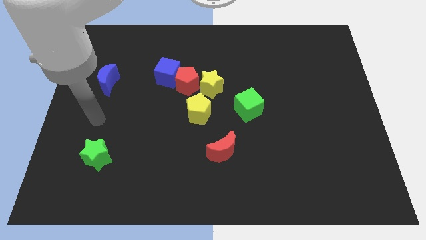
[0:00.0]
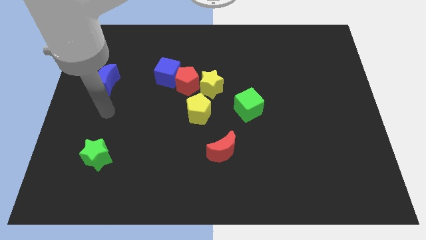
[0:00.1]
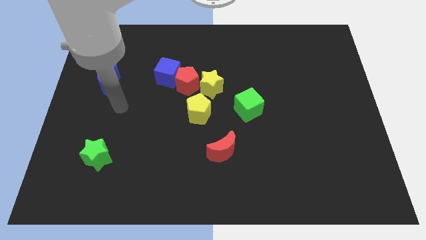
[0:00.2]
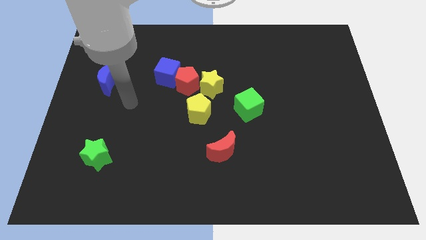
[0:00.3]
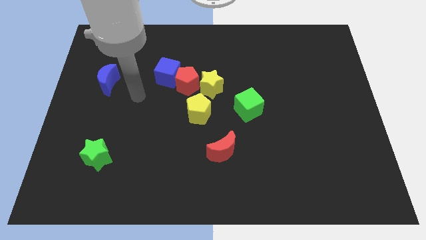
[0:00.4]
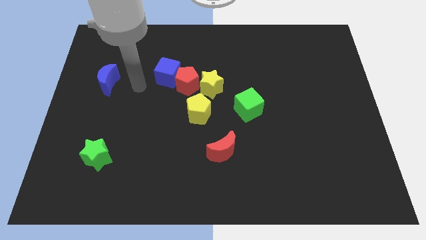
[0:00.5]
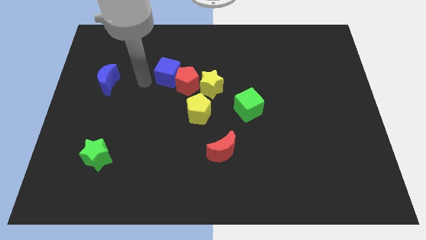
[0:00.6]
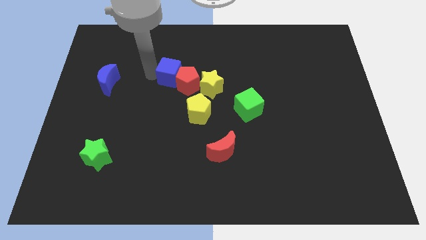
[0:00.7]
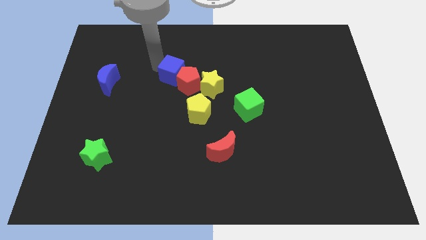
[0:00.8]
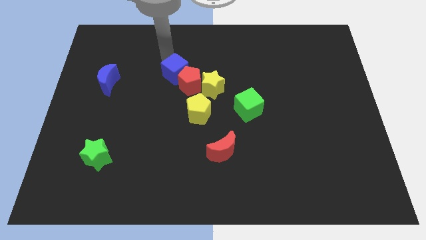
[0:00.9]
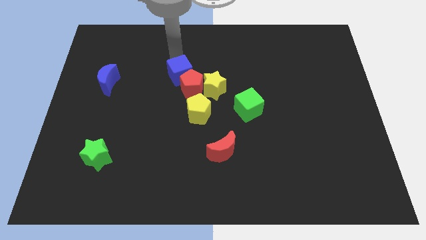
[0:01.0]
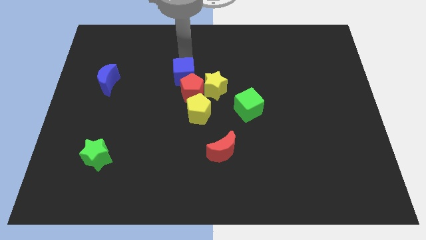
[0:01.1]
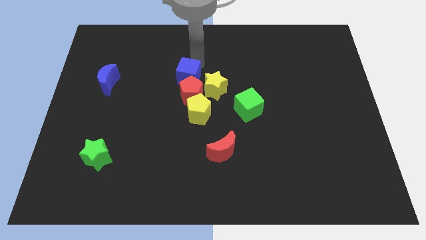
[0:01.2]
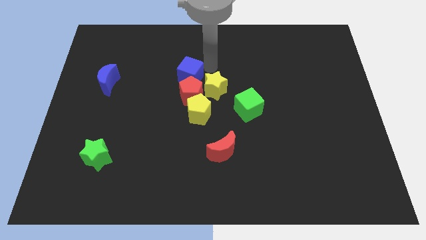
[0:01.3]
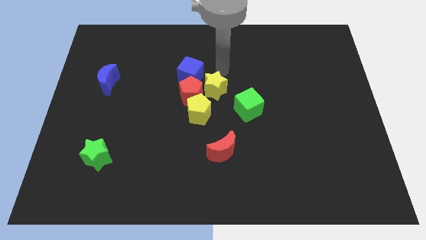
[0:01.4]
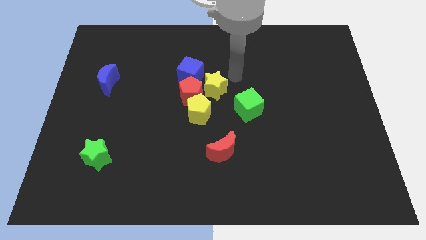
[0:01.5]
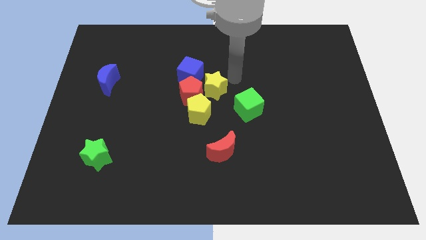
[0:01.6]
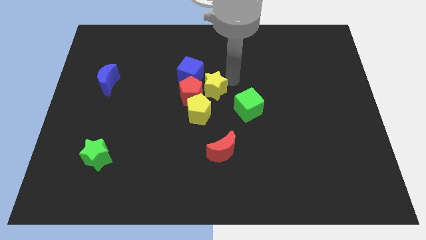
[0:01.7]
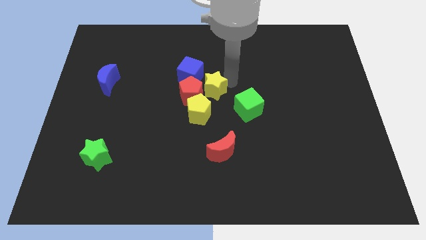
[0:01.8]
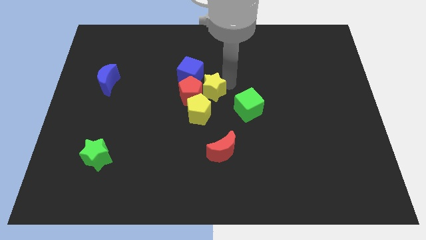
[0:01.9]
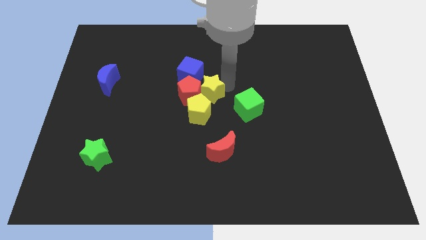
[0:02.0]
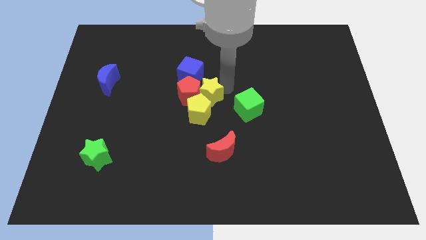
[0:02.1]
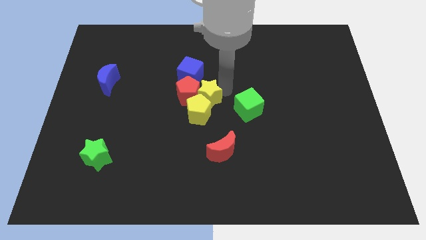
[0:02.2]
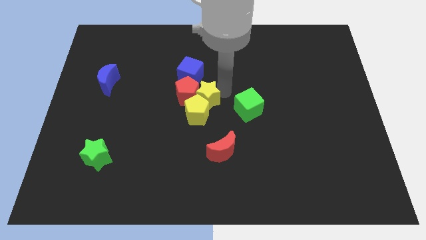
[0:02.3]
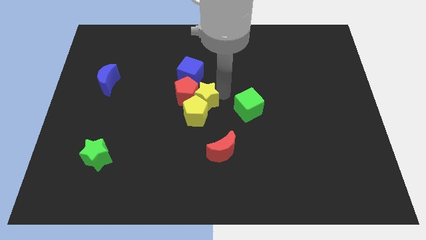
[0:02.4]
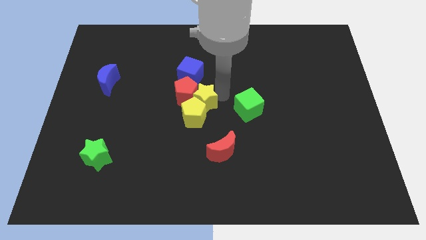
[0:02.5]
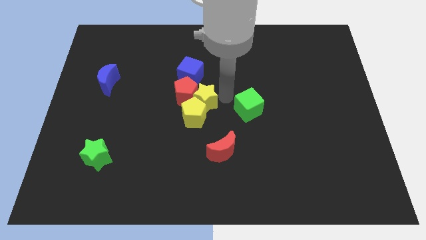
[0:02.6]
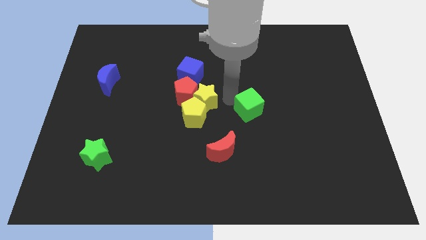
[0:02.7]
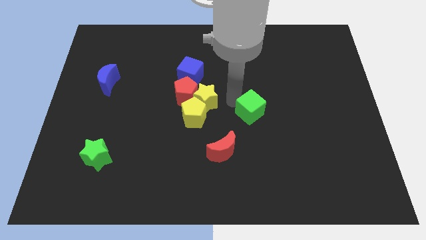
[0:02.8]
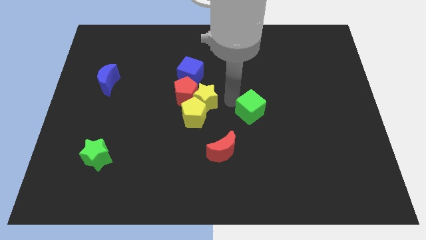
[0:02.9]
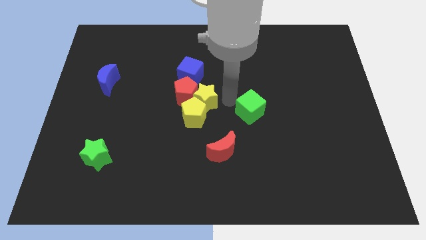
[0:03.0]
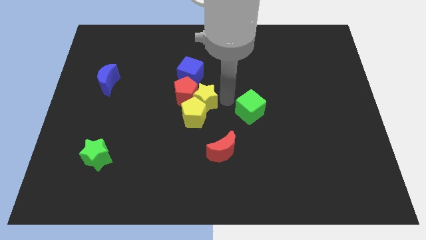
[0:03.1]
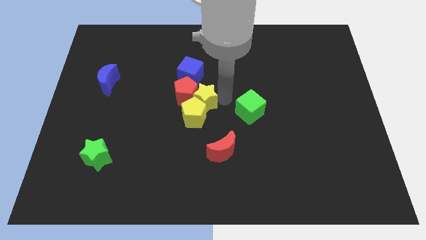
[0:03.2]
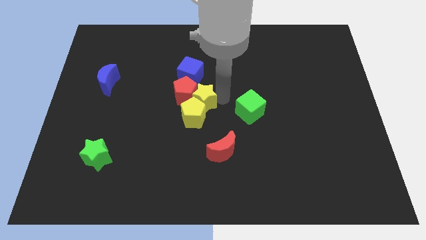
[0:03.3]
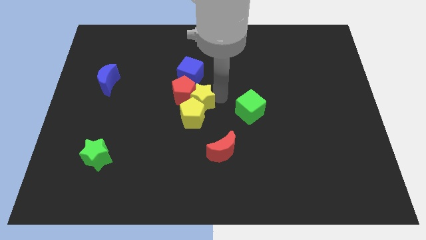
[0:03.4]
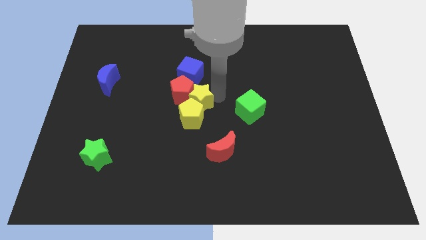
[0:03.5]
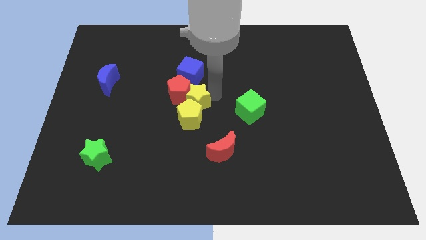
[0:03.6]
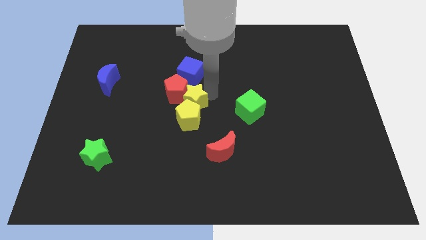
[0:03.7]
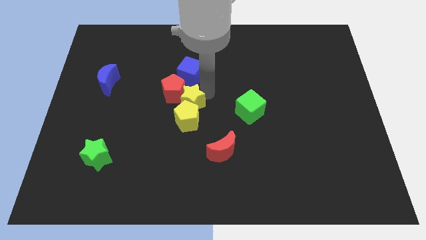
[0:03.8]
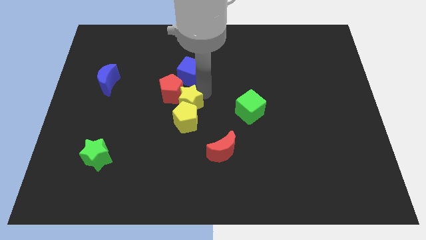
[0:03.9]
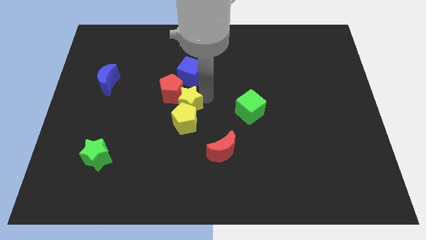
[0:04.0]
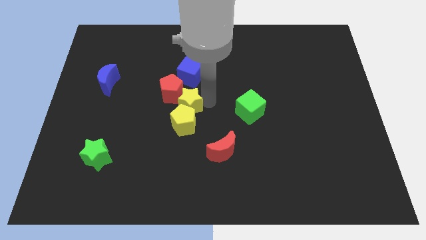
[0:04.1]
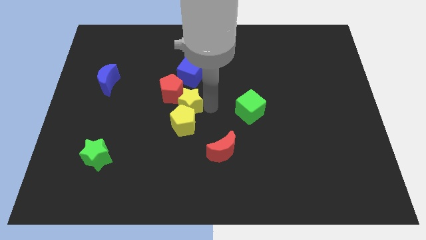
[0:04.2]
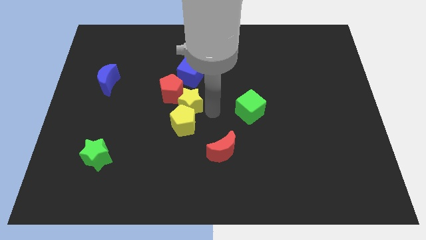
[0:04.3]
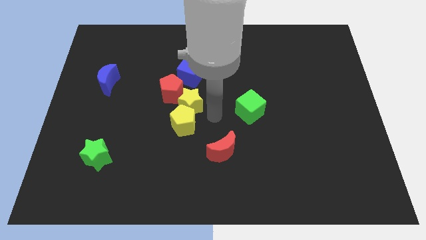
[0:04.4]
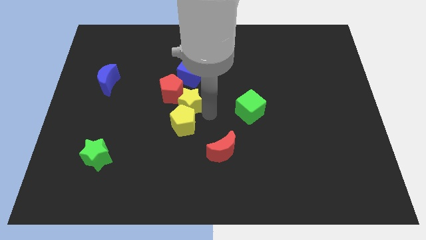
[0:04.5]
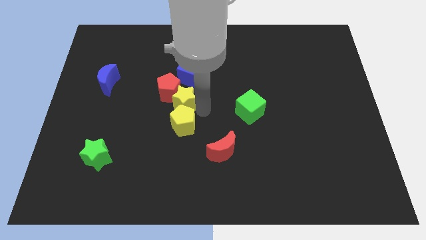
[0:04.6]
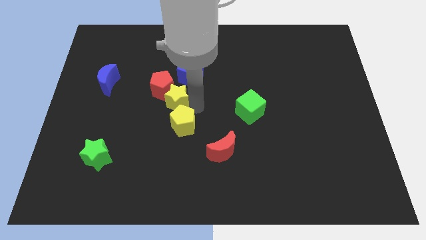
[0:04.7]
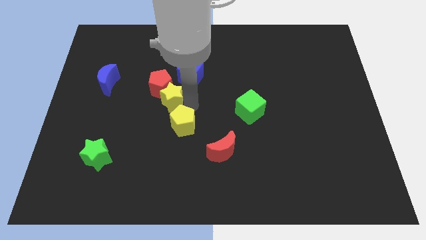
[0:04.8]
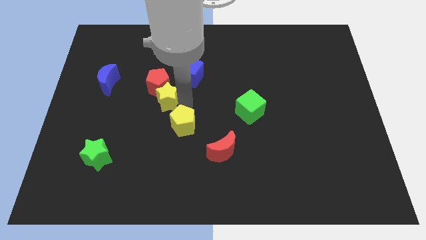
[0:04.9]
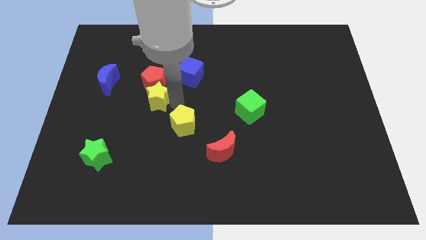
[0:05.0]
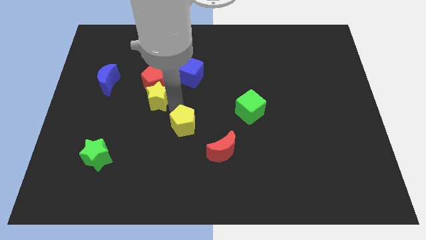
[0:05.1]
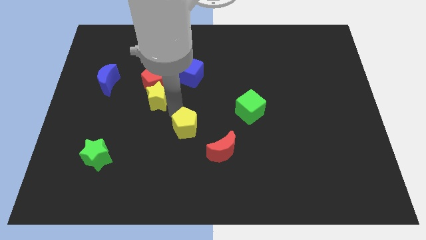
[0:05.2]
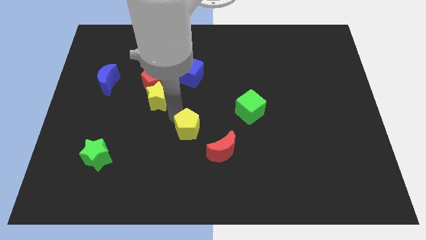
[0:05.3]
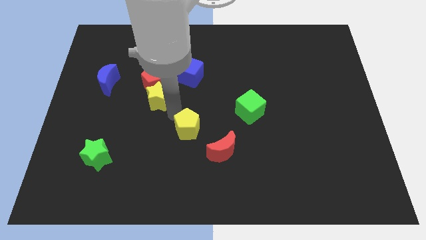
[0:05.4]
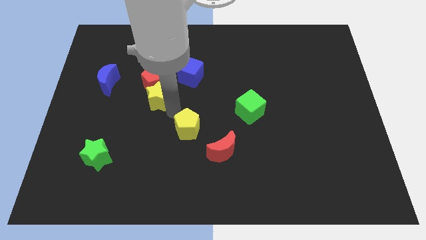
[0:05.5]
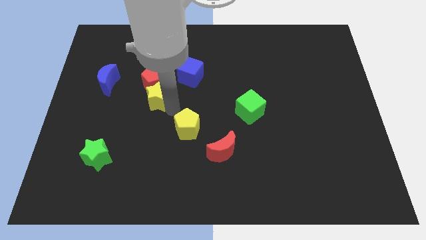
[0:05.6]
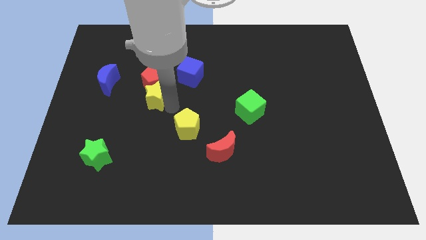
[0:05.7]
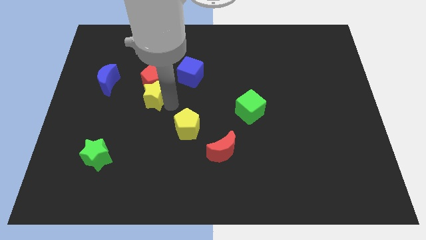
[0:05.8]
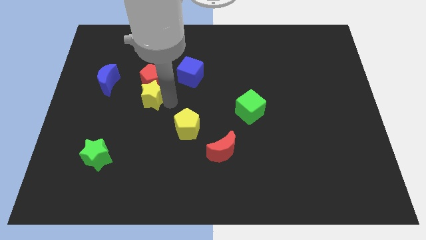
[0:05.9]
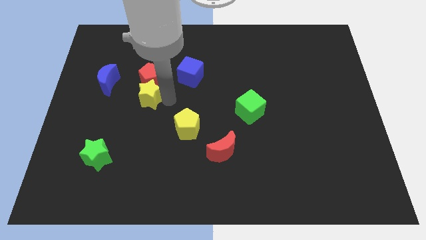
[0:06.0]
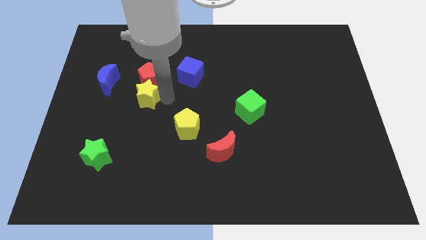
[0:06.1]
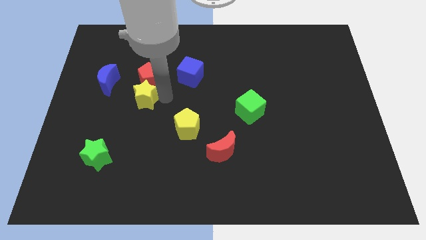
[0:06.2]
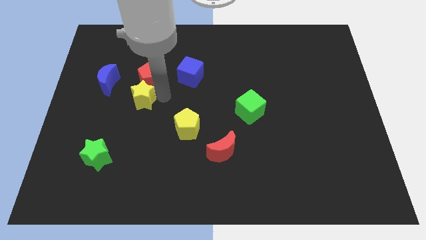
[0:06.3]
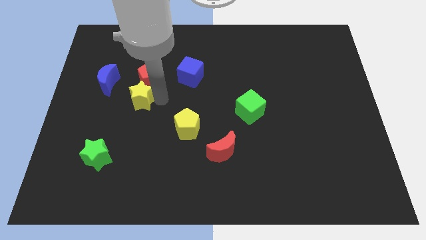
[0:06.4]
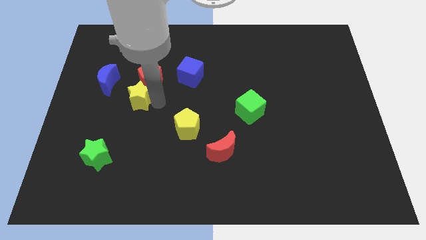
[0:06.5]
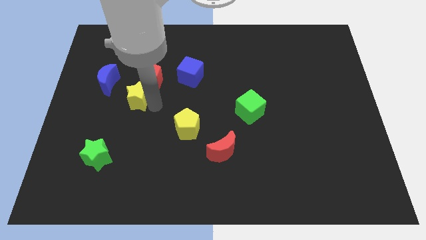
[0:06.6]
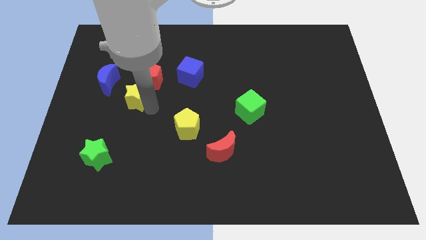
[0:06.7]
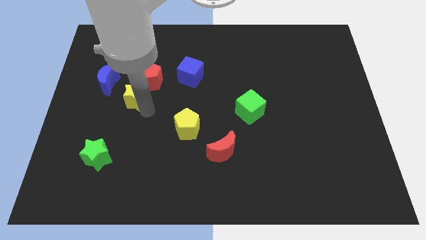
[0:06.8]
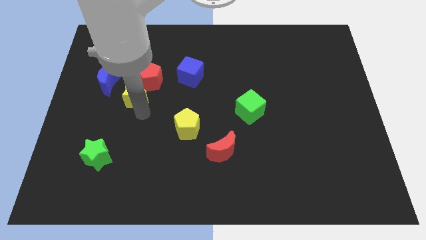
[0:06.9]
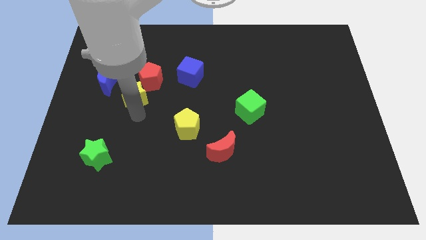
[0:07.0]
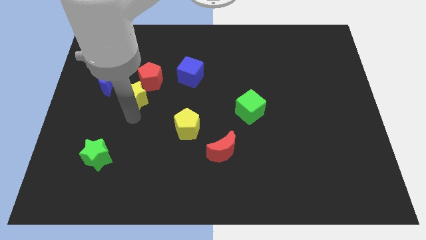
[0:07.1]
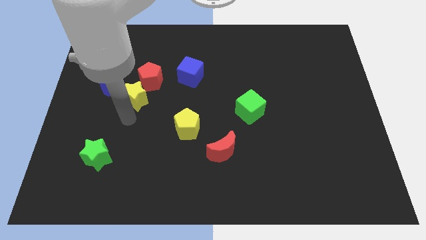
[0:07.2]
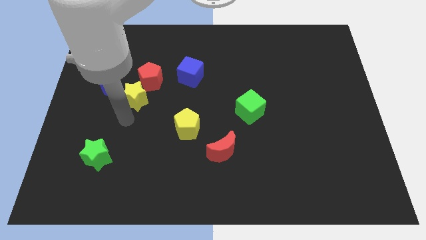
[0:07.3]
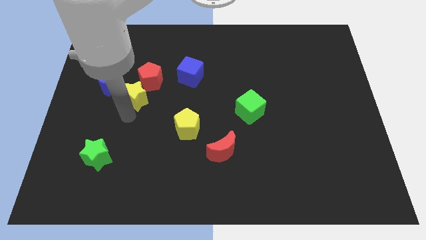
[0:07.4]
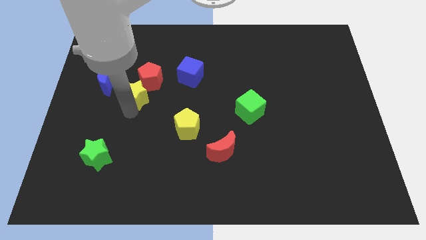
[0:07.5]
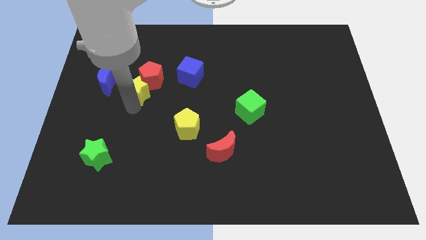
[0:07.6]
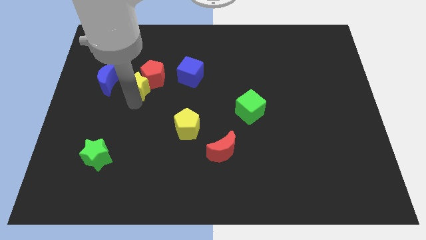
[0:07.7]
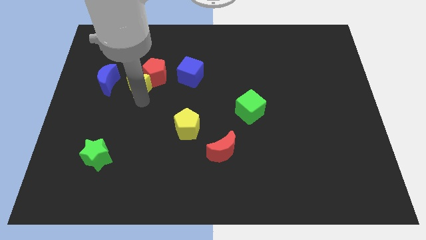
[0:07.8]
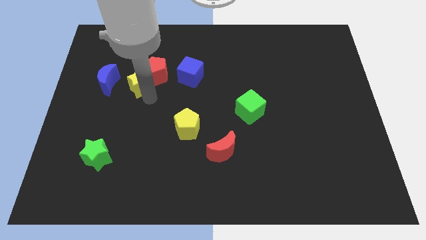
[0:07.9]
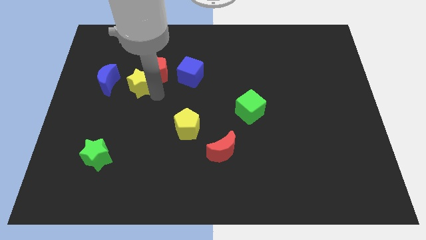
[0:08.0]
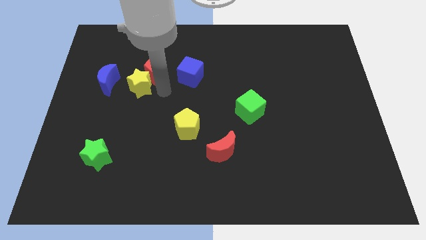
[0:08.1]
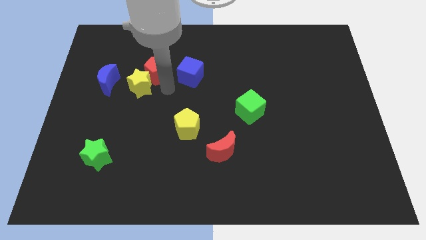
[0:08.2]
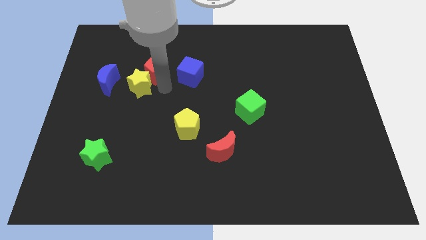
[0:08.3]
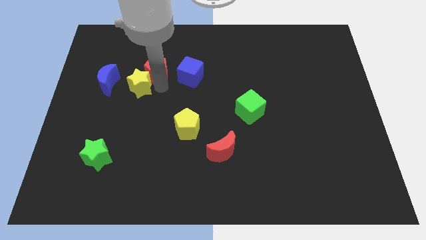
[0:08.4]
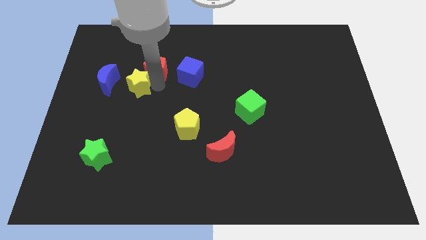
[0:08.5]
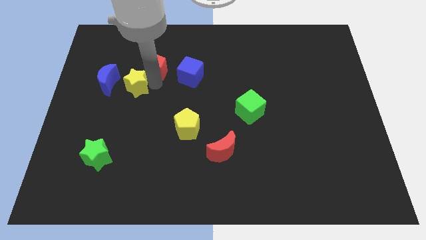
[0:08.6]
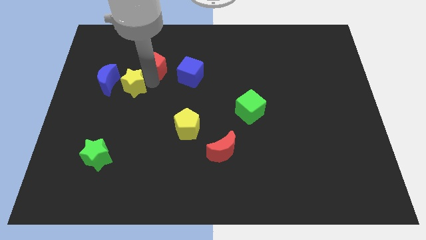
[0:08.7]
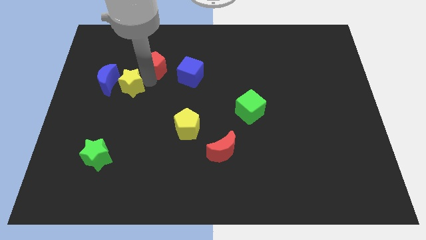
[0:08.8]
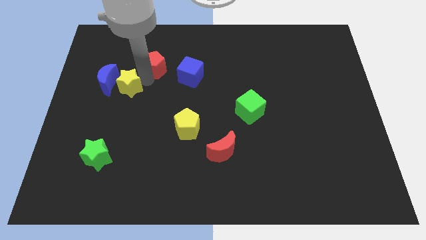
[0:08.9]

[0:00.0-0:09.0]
put the yellow star to the blue moon
